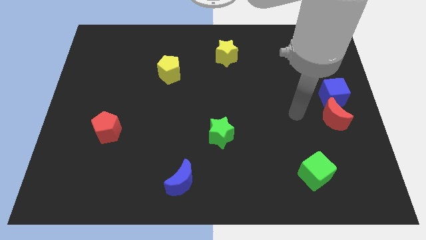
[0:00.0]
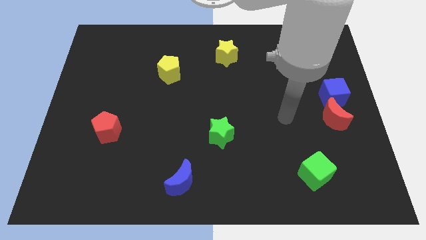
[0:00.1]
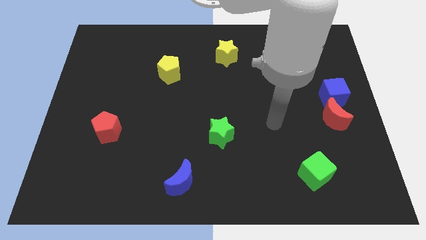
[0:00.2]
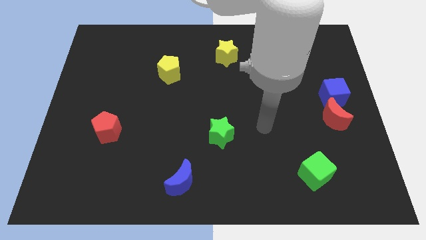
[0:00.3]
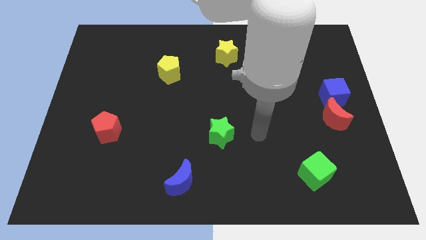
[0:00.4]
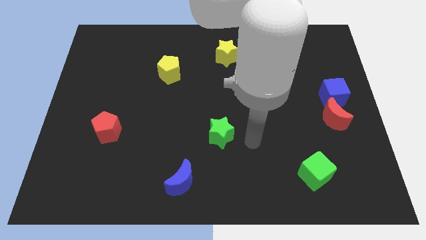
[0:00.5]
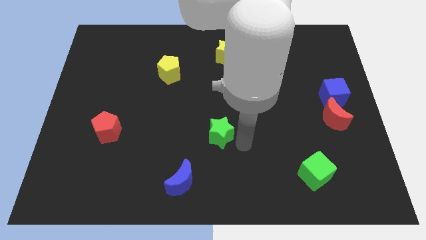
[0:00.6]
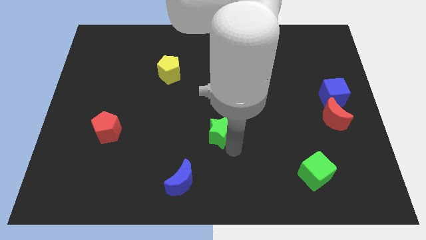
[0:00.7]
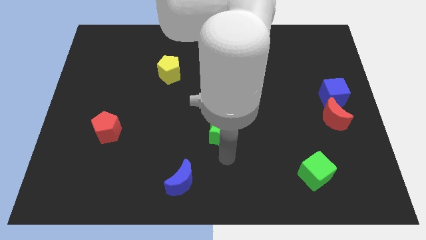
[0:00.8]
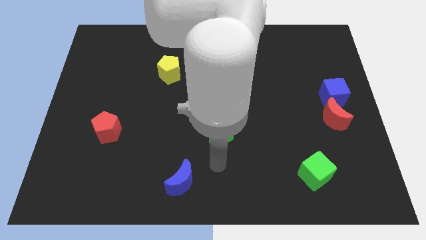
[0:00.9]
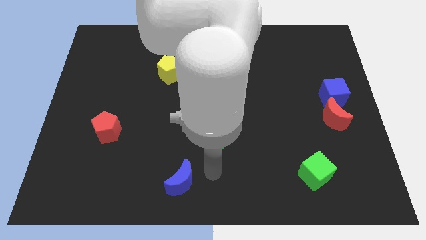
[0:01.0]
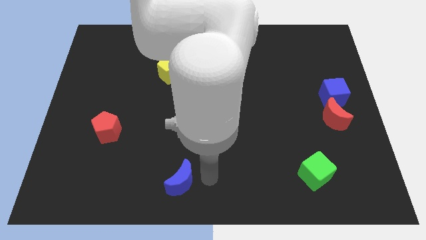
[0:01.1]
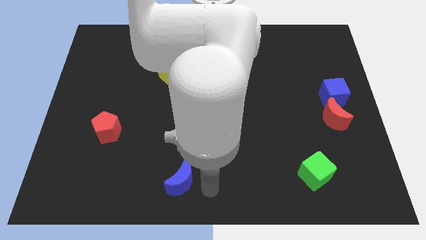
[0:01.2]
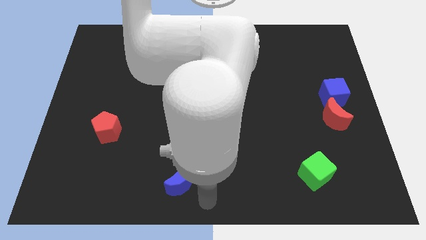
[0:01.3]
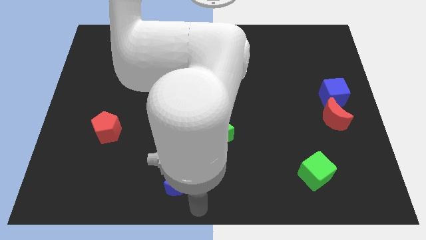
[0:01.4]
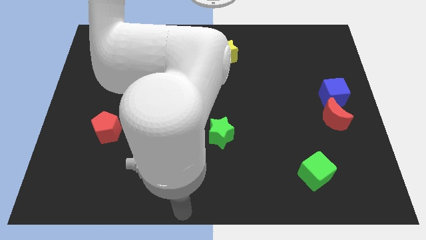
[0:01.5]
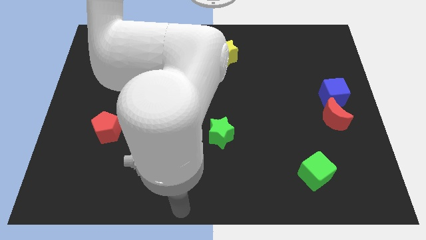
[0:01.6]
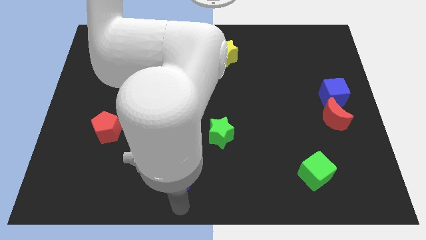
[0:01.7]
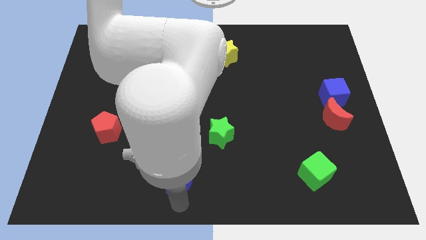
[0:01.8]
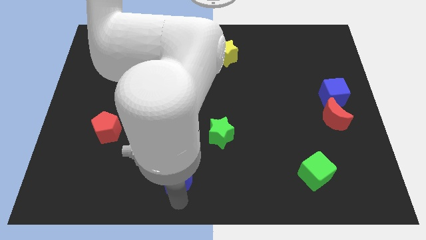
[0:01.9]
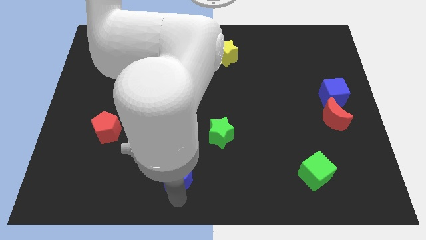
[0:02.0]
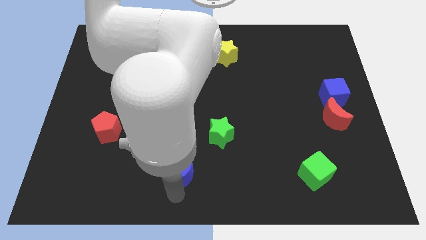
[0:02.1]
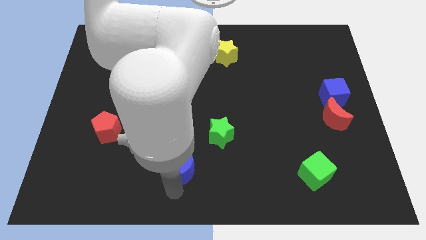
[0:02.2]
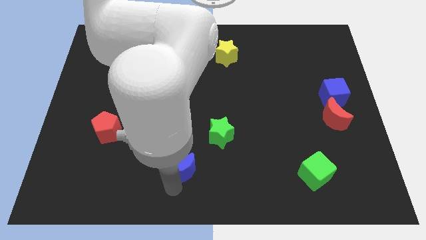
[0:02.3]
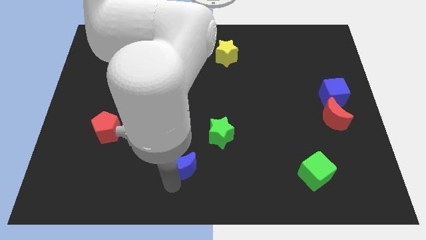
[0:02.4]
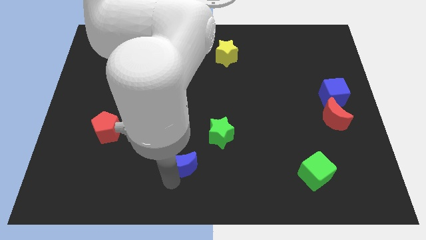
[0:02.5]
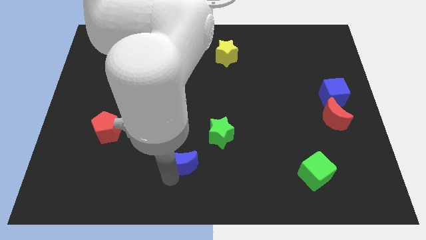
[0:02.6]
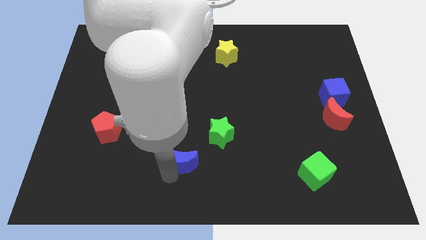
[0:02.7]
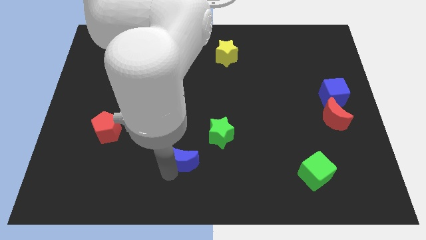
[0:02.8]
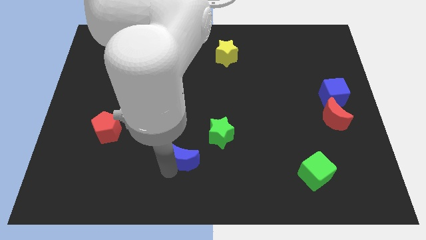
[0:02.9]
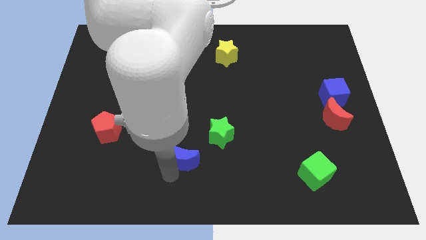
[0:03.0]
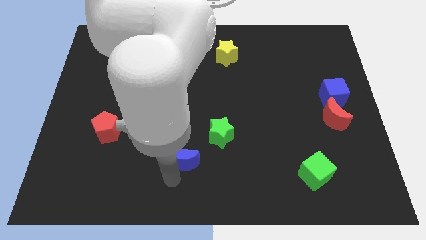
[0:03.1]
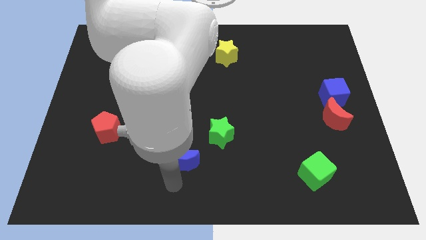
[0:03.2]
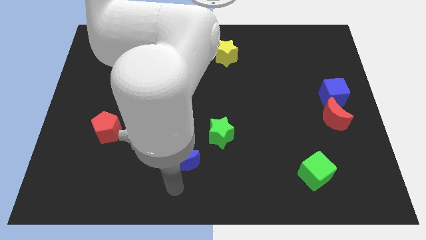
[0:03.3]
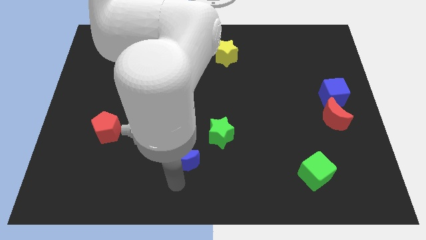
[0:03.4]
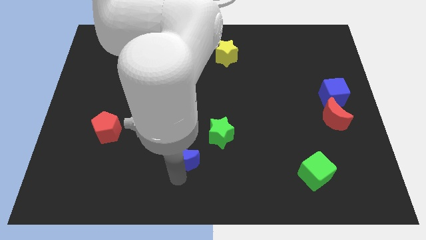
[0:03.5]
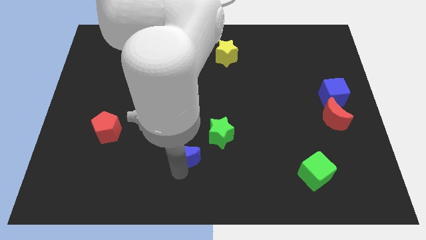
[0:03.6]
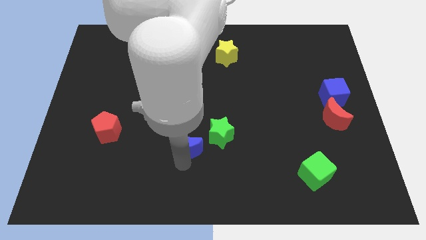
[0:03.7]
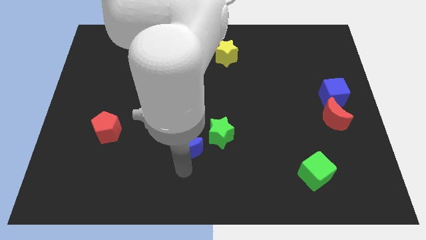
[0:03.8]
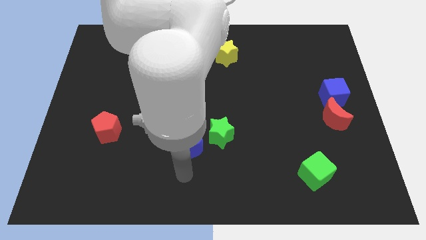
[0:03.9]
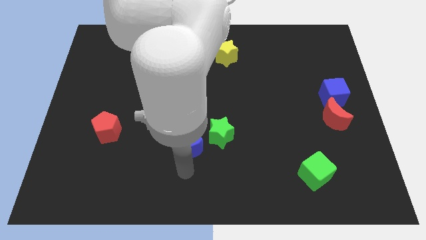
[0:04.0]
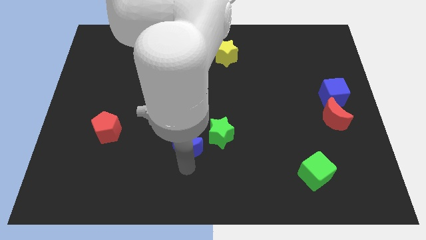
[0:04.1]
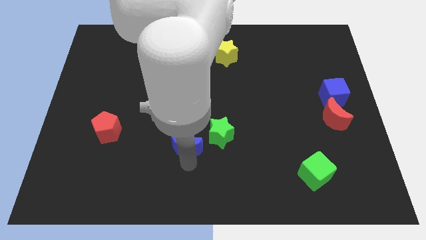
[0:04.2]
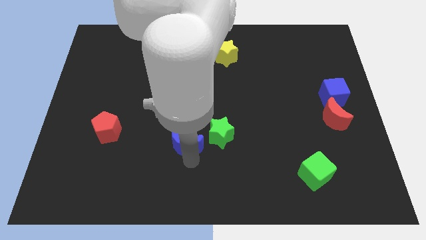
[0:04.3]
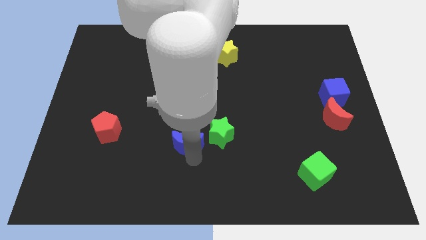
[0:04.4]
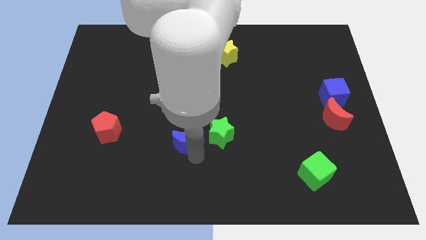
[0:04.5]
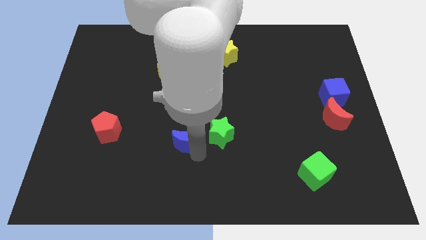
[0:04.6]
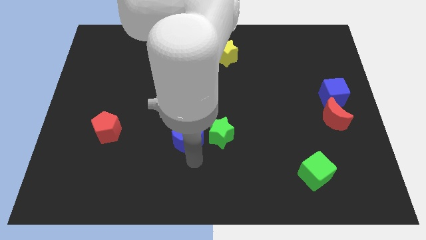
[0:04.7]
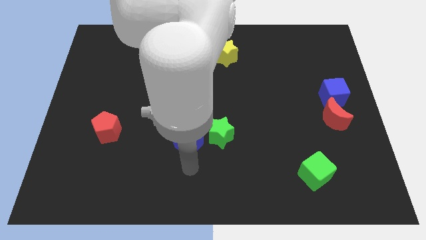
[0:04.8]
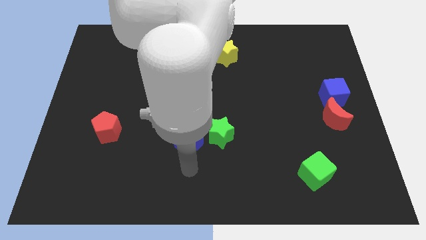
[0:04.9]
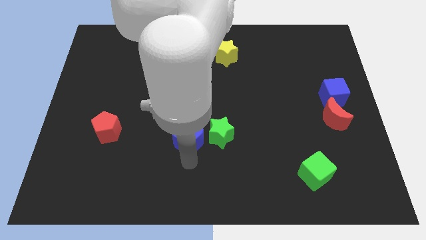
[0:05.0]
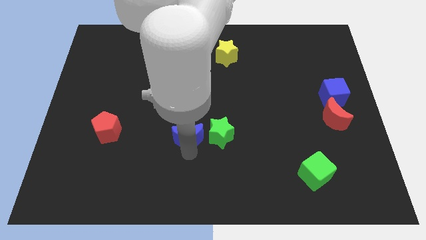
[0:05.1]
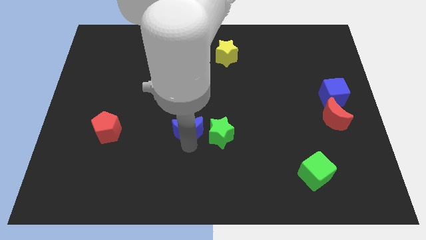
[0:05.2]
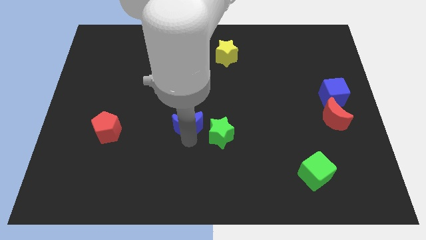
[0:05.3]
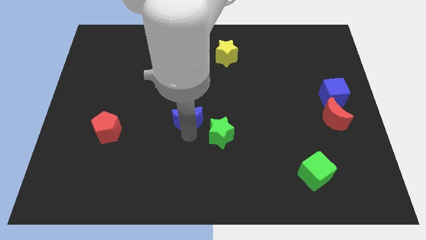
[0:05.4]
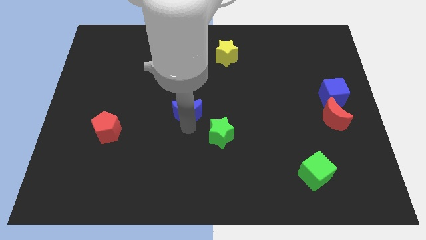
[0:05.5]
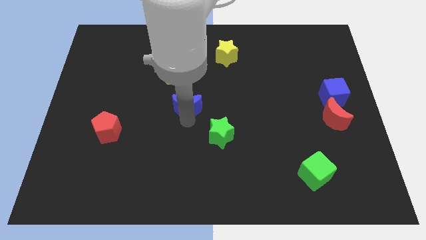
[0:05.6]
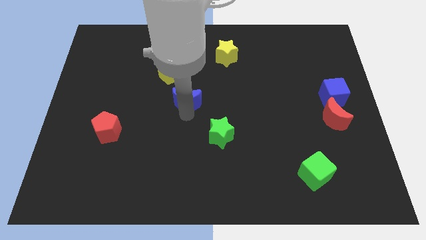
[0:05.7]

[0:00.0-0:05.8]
push the blue moon upwards

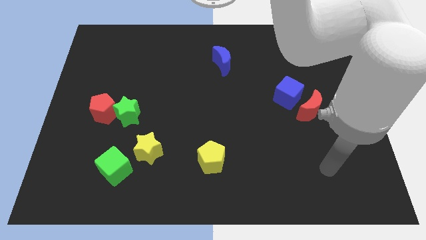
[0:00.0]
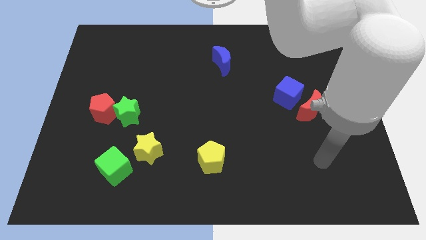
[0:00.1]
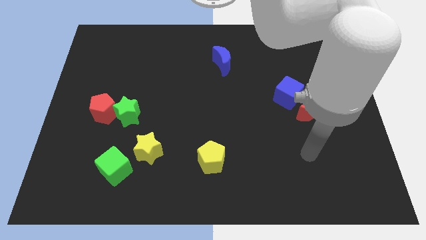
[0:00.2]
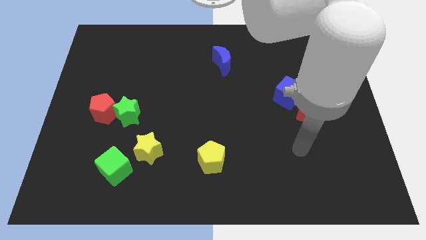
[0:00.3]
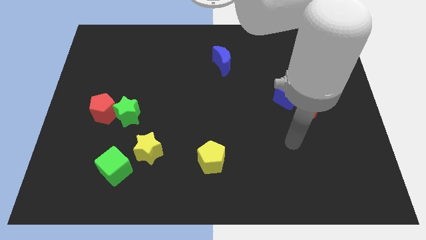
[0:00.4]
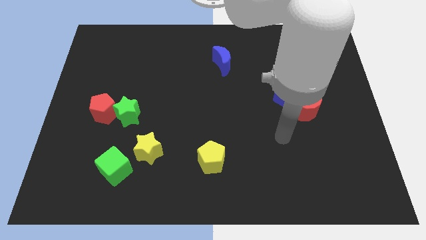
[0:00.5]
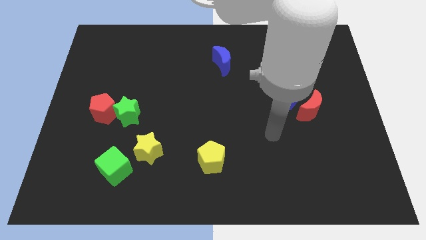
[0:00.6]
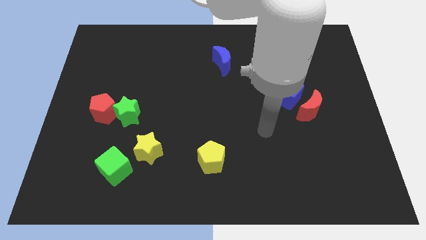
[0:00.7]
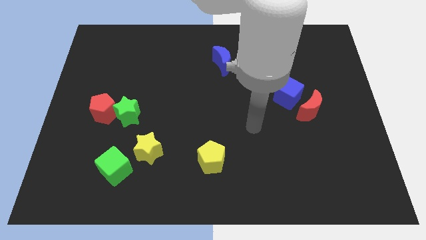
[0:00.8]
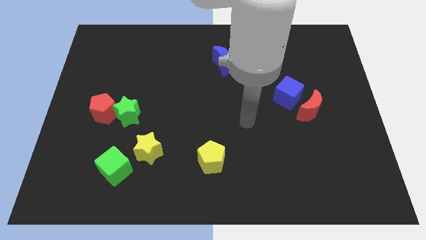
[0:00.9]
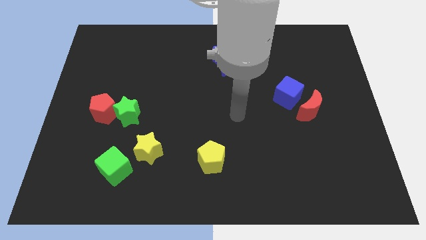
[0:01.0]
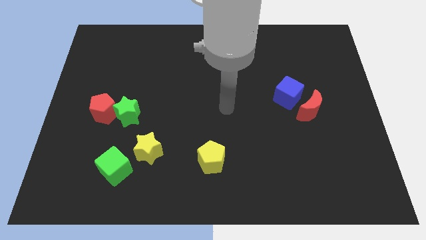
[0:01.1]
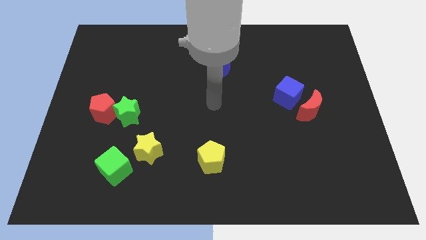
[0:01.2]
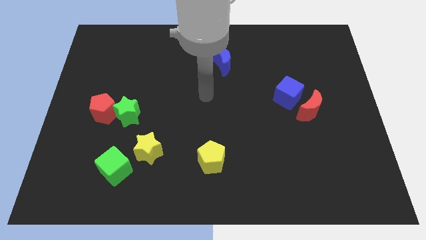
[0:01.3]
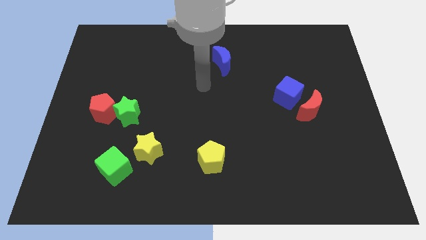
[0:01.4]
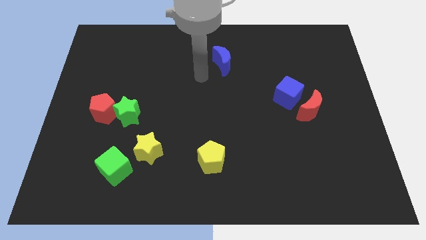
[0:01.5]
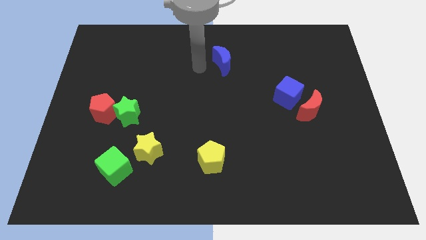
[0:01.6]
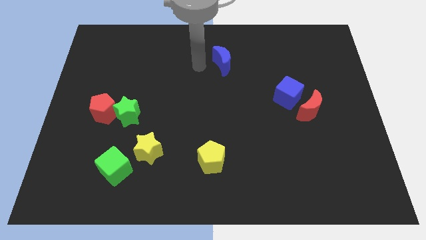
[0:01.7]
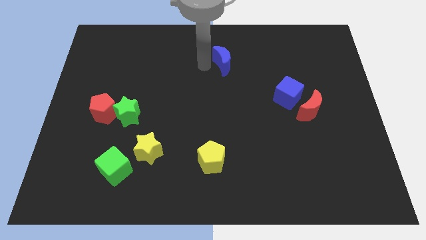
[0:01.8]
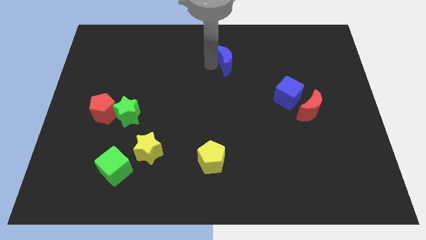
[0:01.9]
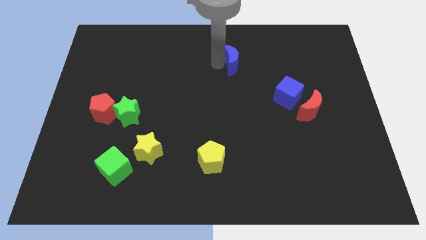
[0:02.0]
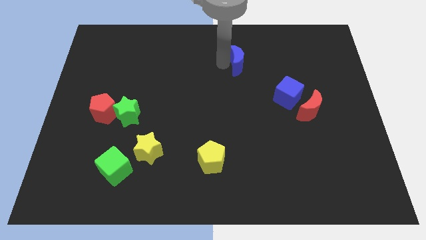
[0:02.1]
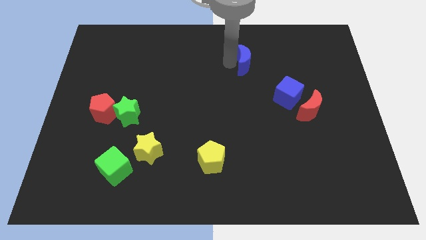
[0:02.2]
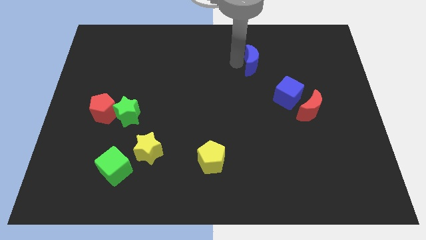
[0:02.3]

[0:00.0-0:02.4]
slide the blue moon a little right
